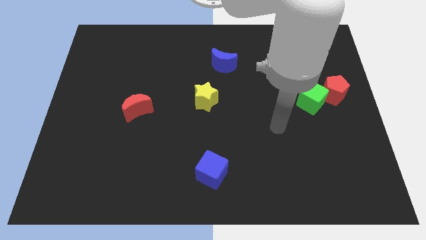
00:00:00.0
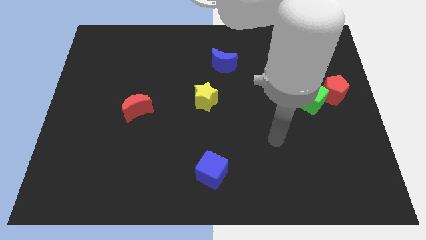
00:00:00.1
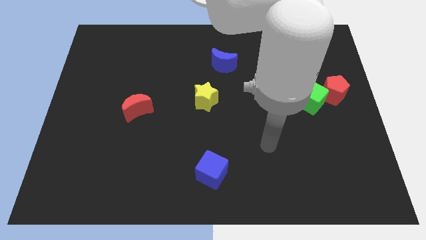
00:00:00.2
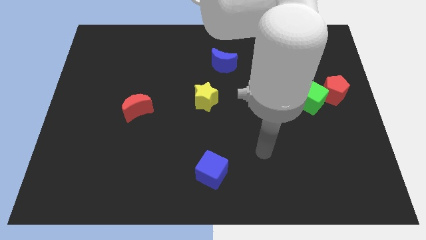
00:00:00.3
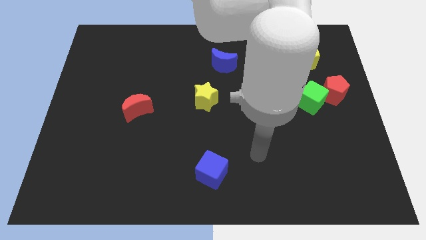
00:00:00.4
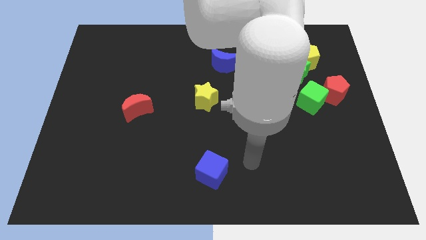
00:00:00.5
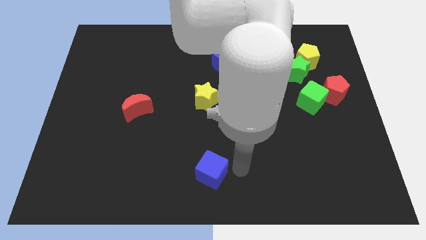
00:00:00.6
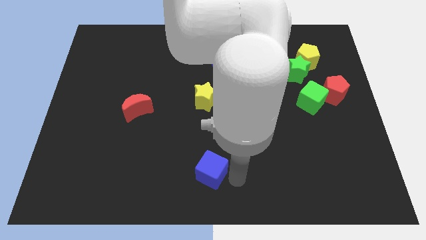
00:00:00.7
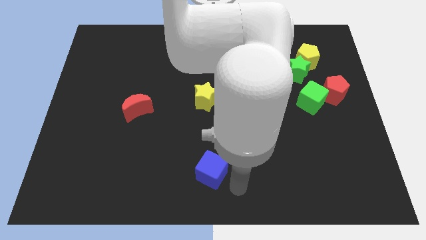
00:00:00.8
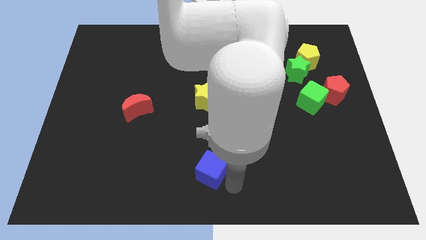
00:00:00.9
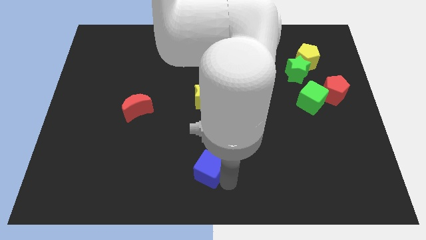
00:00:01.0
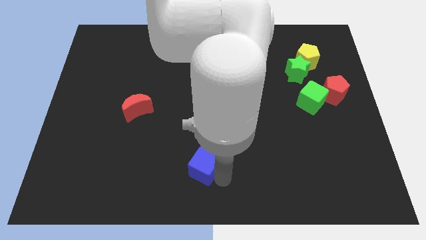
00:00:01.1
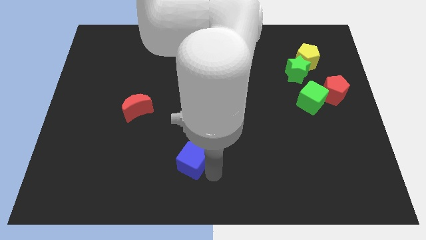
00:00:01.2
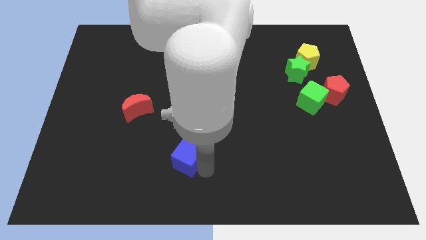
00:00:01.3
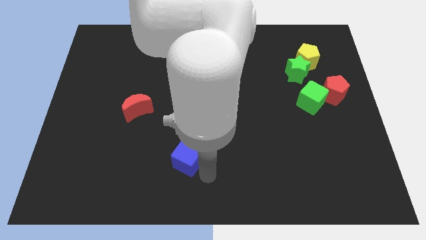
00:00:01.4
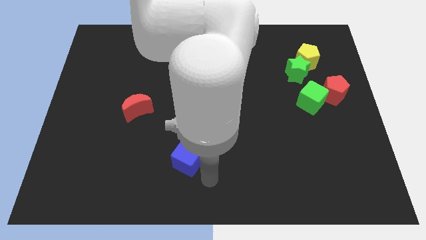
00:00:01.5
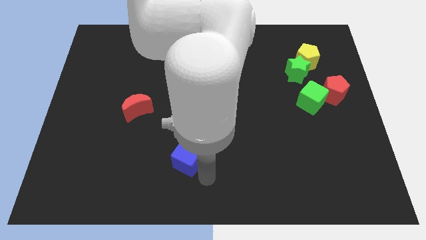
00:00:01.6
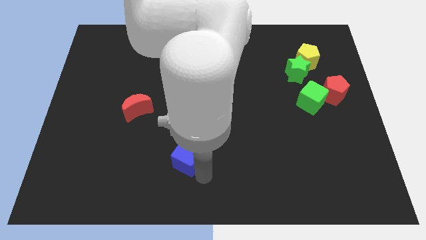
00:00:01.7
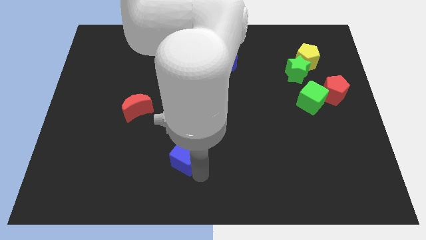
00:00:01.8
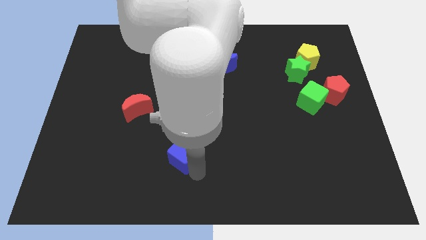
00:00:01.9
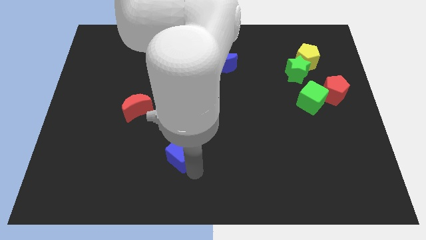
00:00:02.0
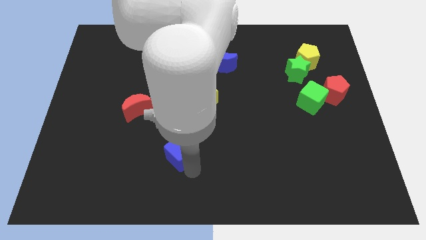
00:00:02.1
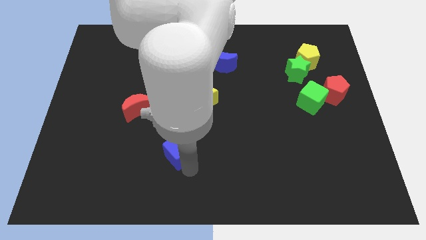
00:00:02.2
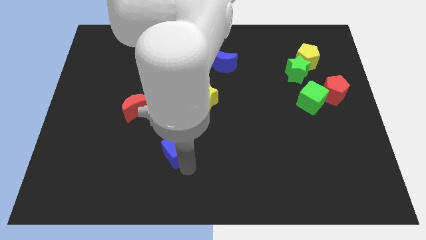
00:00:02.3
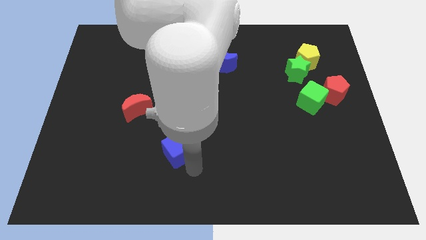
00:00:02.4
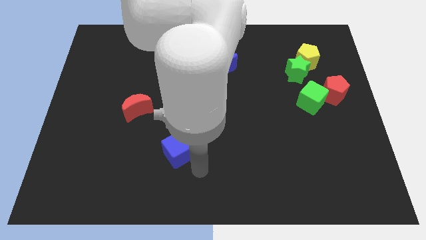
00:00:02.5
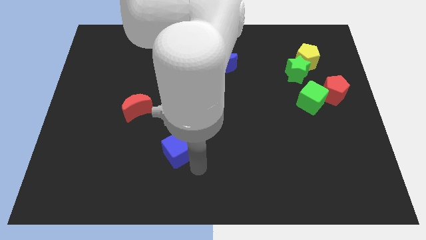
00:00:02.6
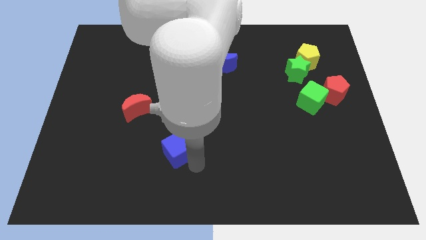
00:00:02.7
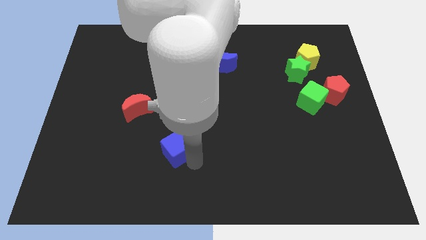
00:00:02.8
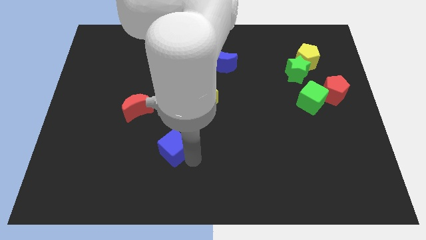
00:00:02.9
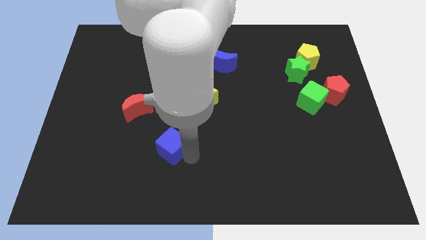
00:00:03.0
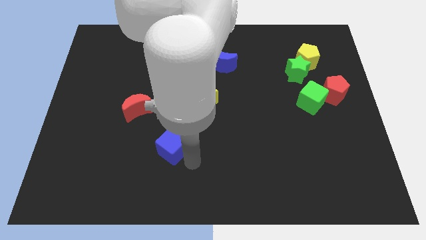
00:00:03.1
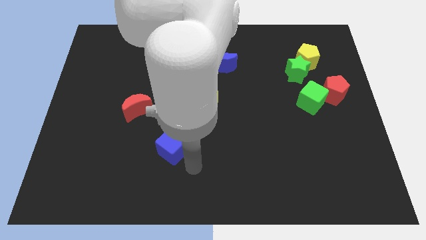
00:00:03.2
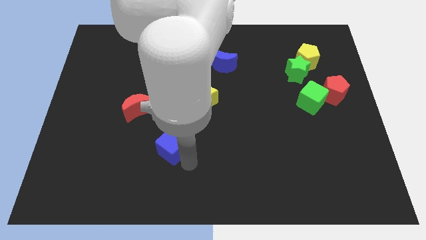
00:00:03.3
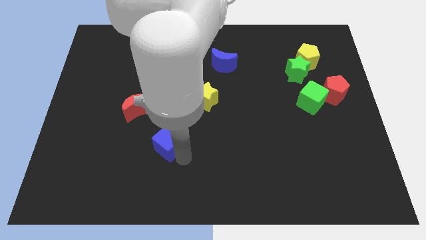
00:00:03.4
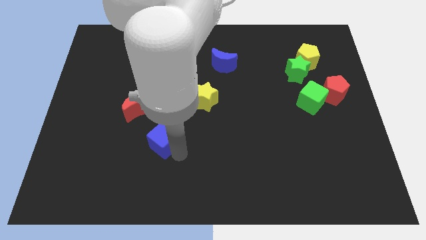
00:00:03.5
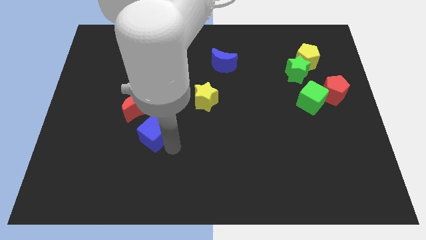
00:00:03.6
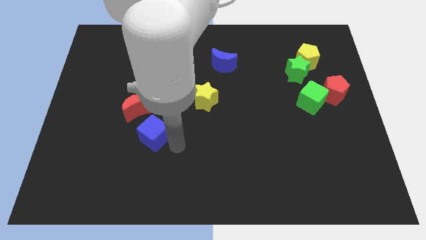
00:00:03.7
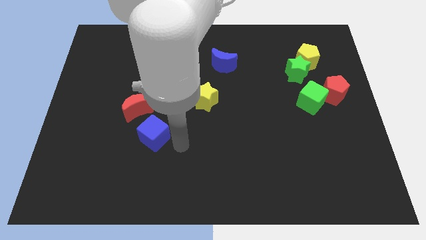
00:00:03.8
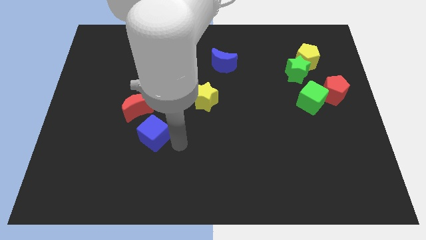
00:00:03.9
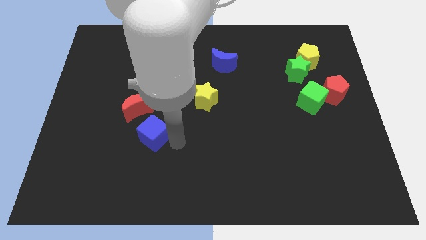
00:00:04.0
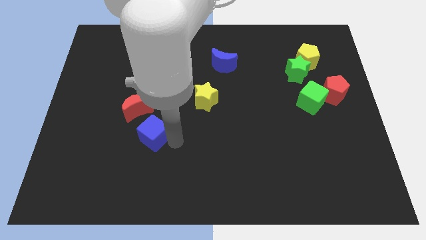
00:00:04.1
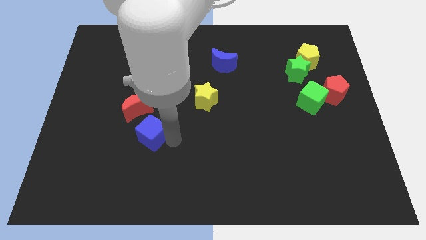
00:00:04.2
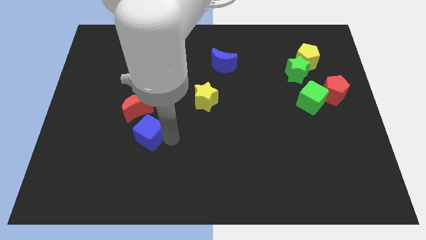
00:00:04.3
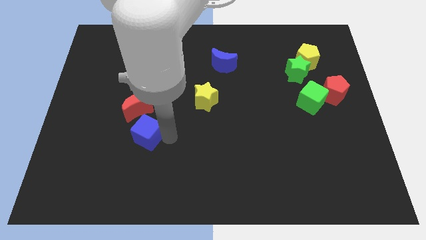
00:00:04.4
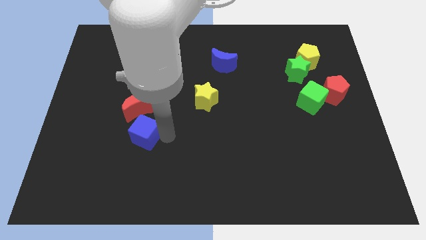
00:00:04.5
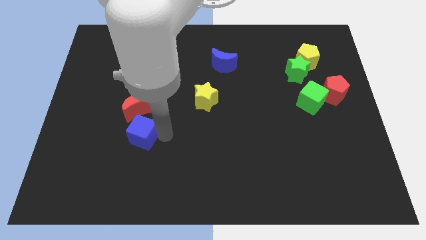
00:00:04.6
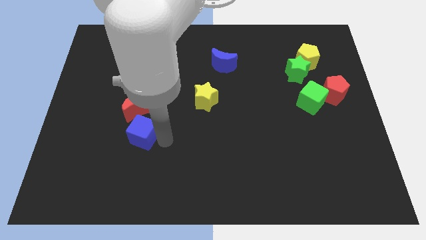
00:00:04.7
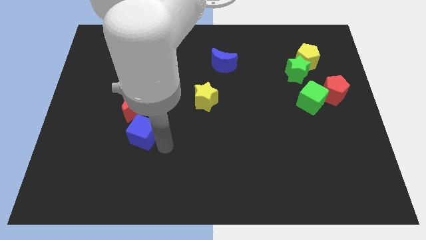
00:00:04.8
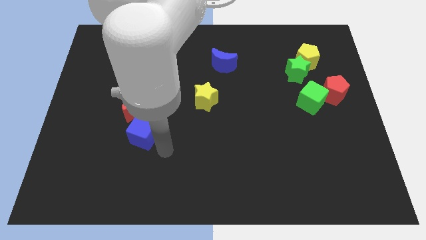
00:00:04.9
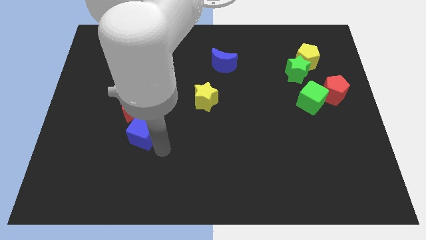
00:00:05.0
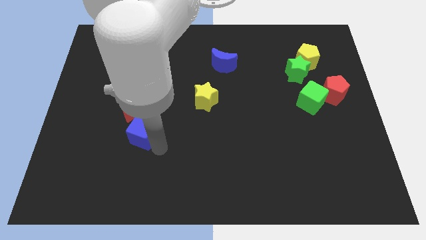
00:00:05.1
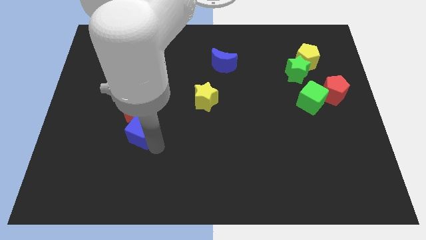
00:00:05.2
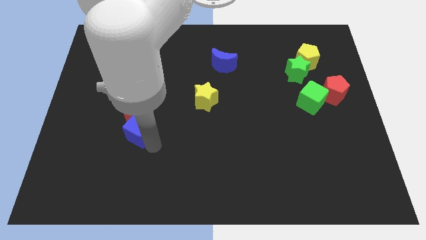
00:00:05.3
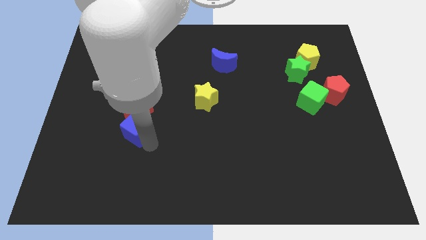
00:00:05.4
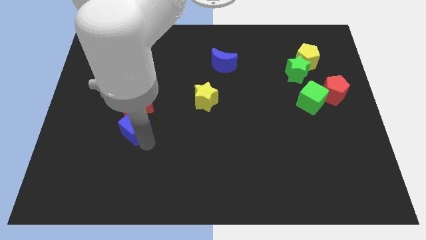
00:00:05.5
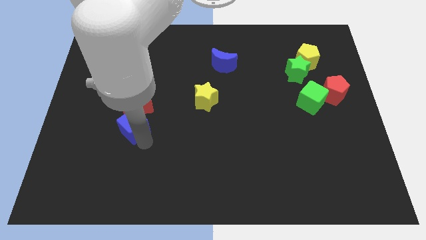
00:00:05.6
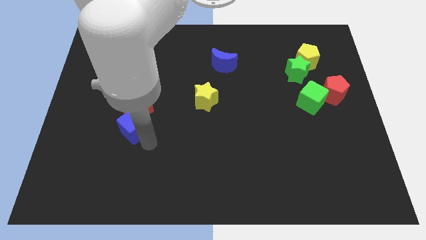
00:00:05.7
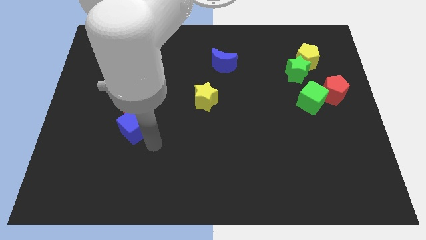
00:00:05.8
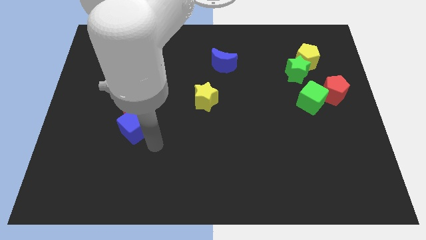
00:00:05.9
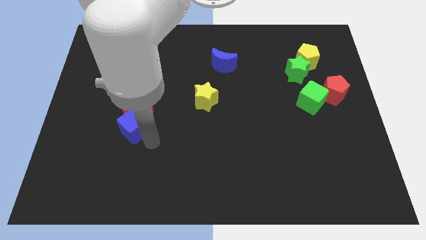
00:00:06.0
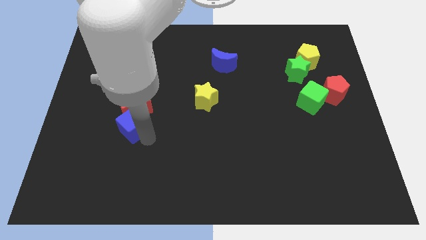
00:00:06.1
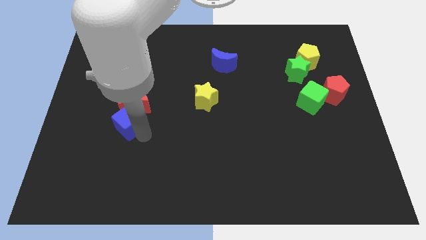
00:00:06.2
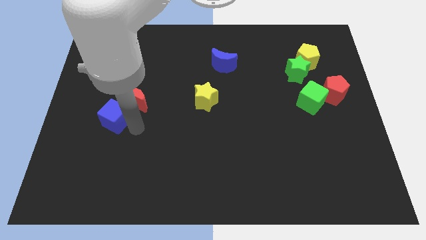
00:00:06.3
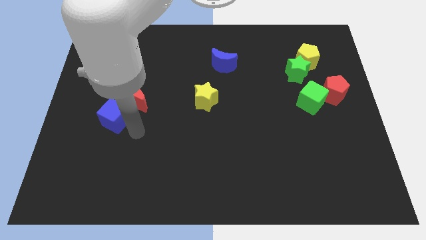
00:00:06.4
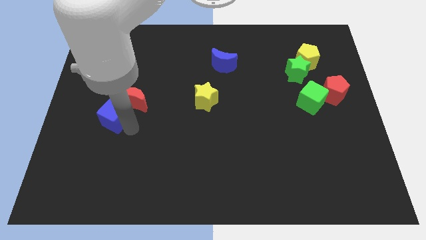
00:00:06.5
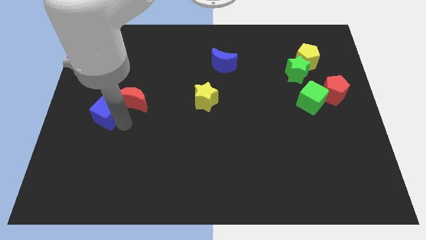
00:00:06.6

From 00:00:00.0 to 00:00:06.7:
put the blue cube to the left side of the red moon

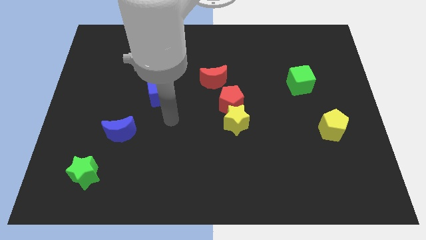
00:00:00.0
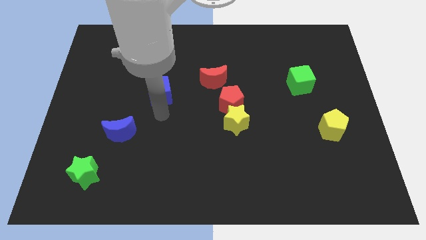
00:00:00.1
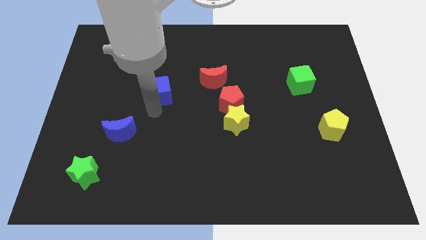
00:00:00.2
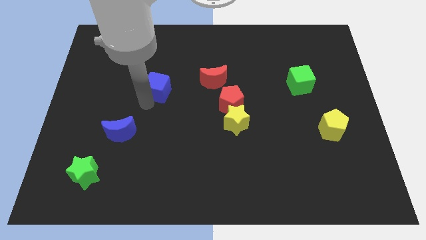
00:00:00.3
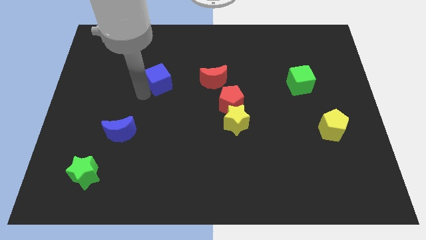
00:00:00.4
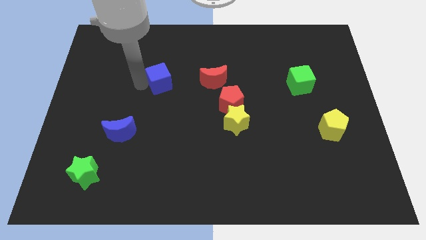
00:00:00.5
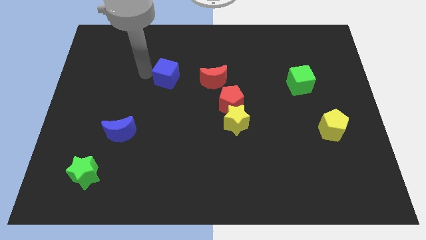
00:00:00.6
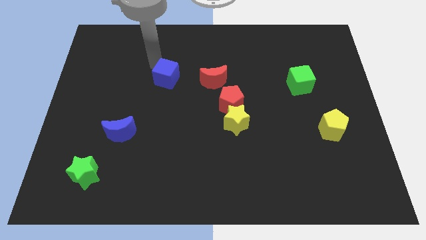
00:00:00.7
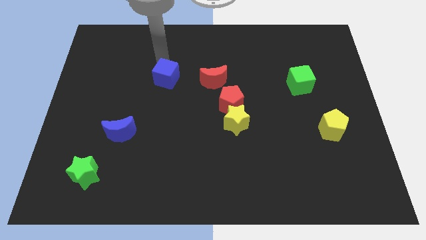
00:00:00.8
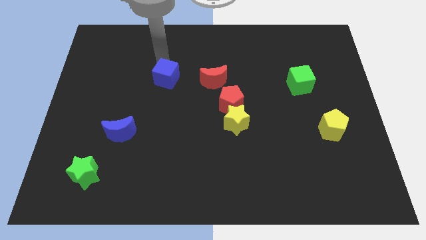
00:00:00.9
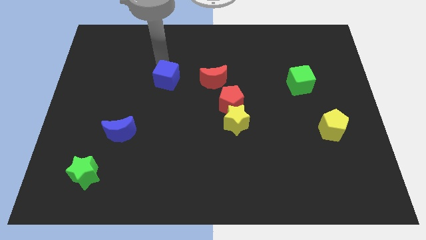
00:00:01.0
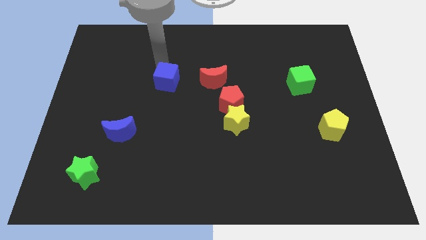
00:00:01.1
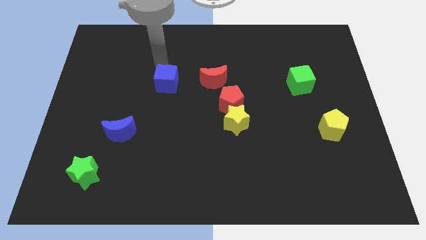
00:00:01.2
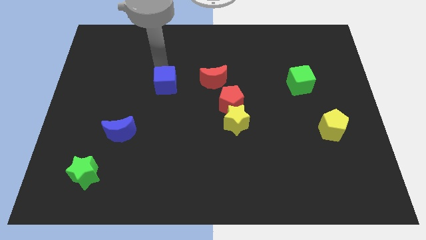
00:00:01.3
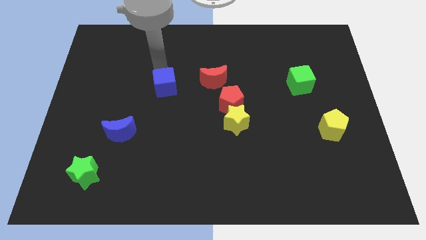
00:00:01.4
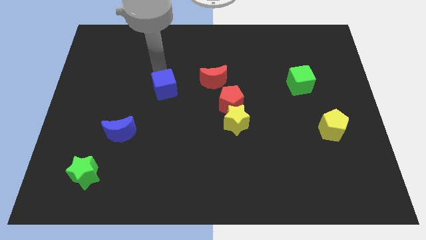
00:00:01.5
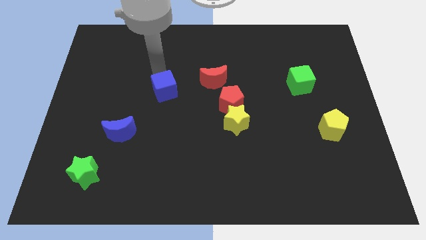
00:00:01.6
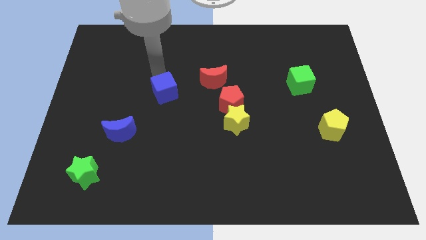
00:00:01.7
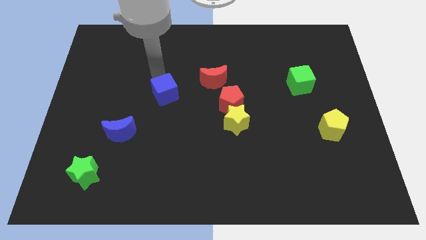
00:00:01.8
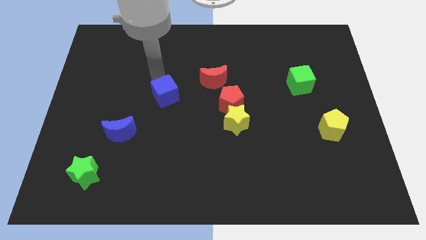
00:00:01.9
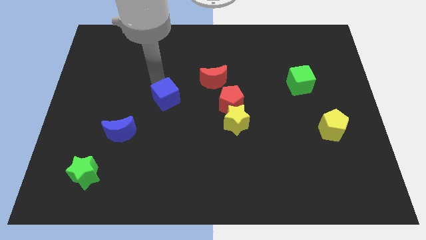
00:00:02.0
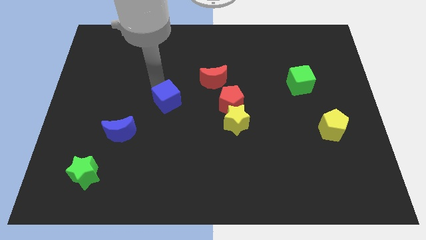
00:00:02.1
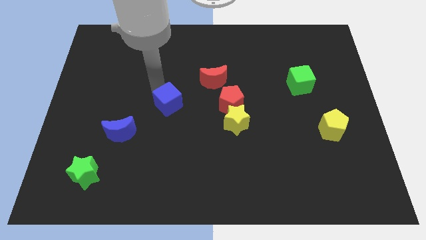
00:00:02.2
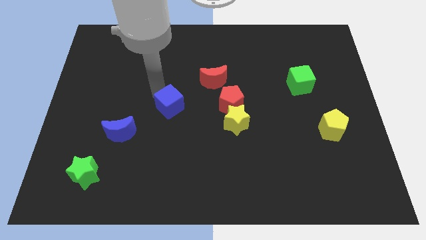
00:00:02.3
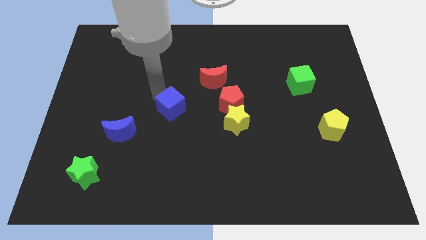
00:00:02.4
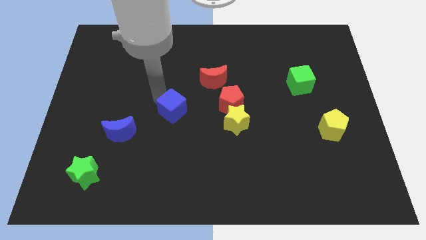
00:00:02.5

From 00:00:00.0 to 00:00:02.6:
slide the blue cube just left of the yellow star
